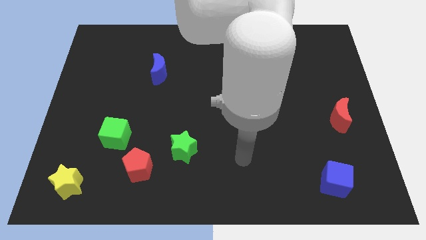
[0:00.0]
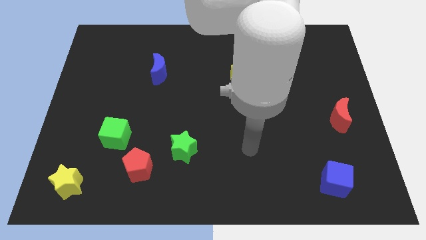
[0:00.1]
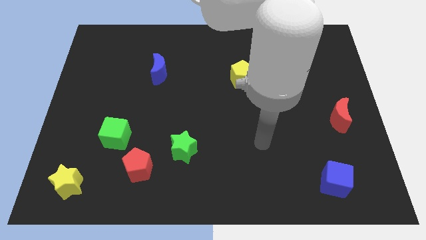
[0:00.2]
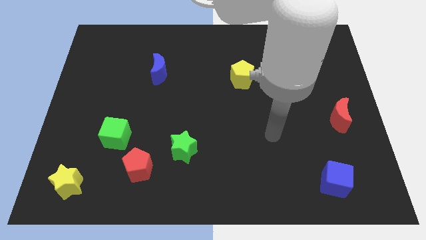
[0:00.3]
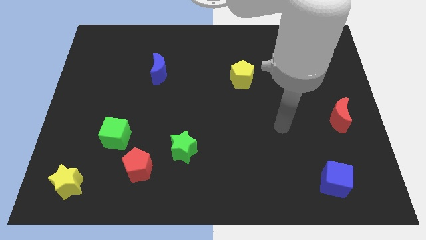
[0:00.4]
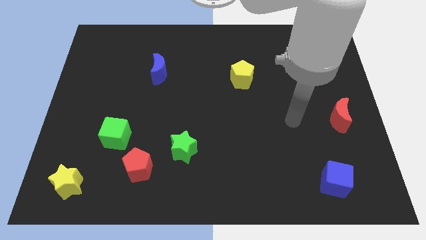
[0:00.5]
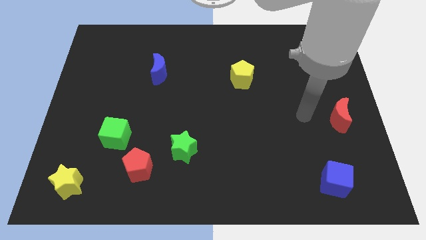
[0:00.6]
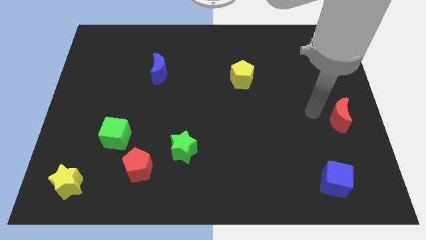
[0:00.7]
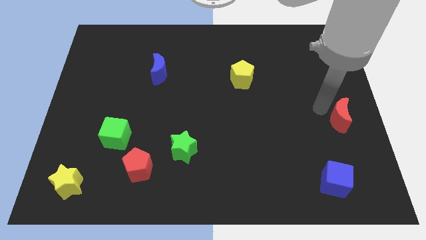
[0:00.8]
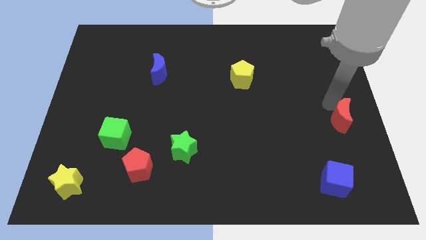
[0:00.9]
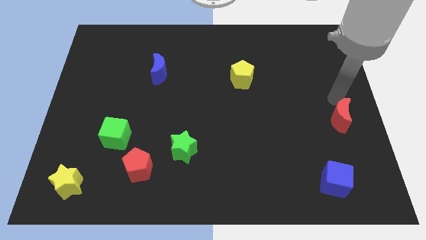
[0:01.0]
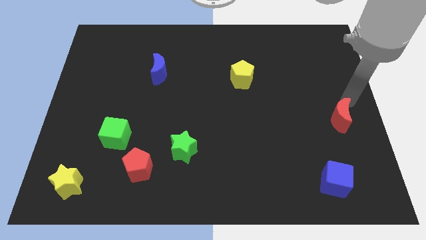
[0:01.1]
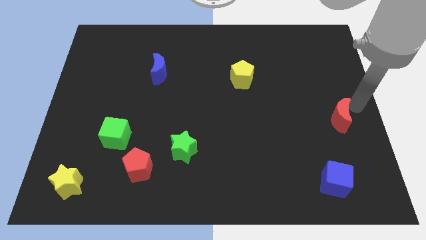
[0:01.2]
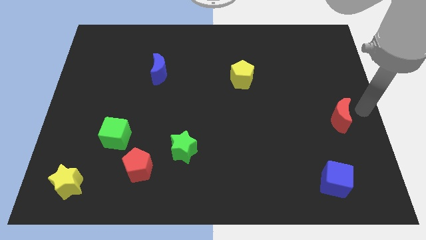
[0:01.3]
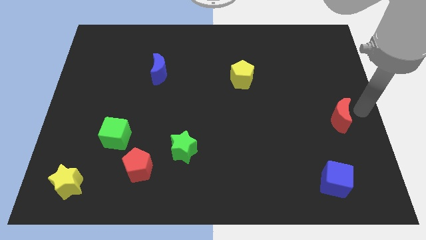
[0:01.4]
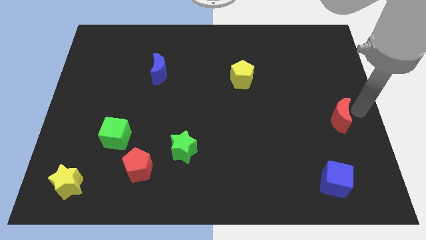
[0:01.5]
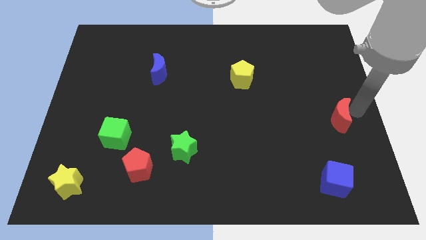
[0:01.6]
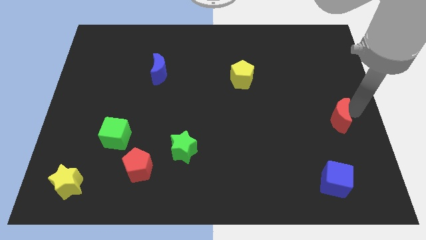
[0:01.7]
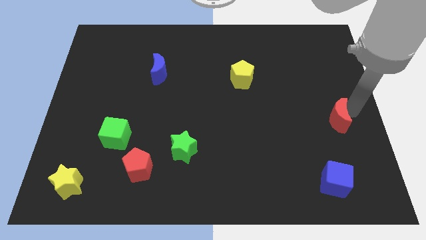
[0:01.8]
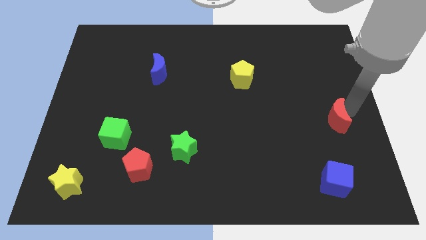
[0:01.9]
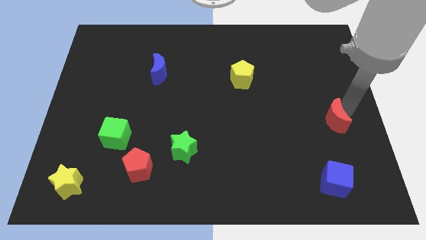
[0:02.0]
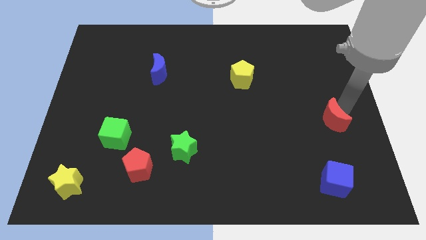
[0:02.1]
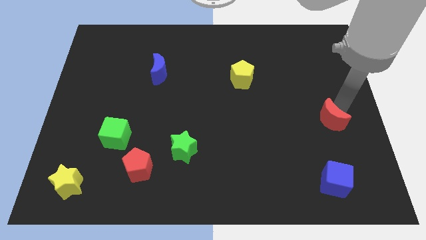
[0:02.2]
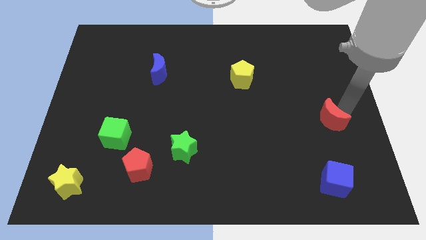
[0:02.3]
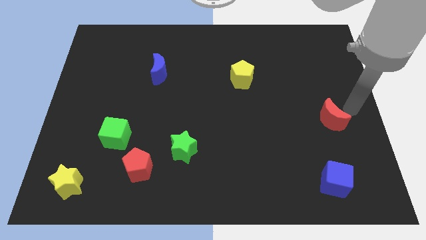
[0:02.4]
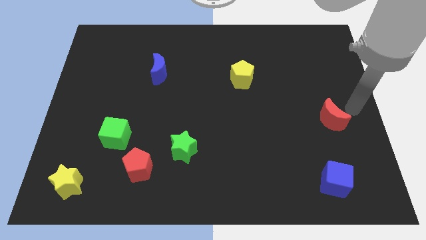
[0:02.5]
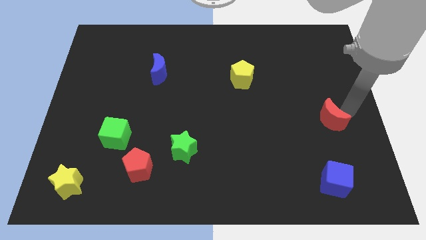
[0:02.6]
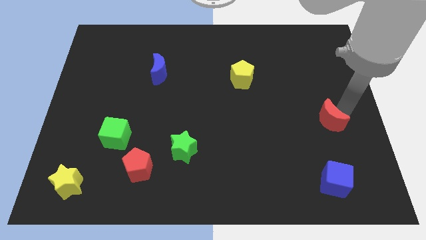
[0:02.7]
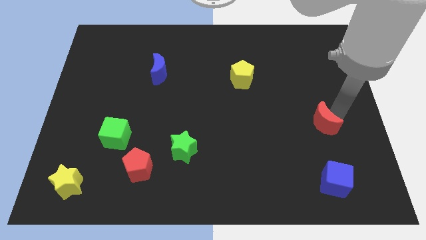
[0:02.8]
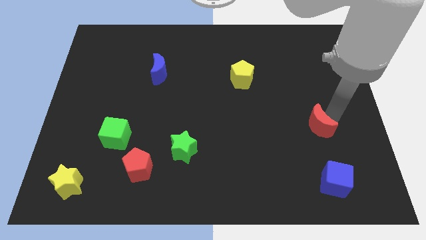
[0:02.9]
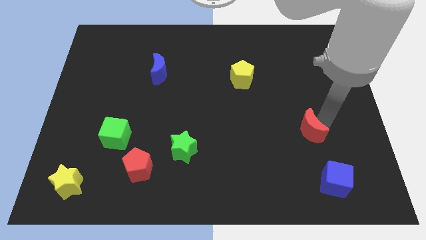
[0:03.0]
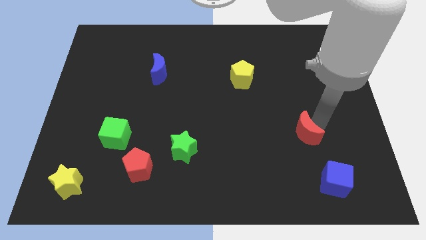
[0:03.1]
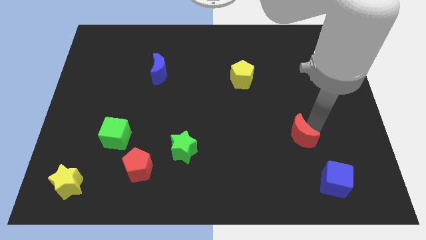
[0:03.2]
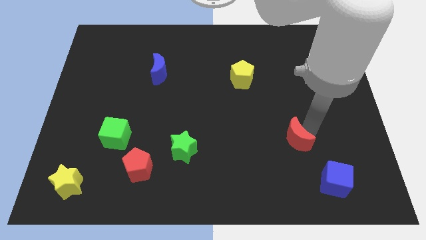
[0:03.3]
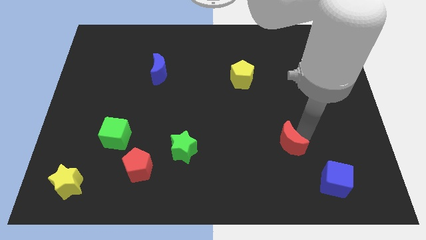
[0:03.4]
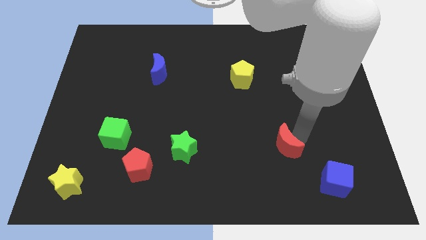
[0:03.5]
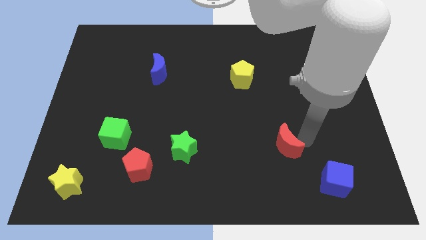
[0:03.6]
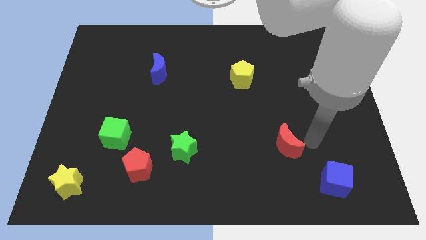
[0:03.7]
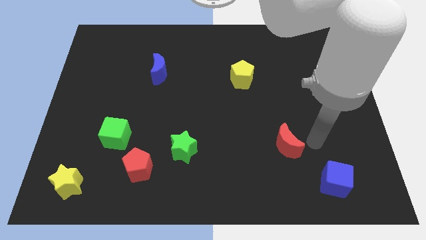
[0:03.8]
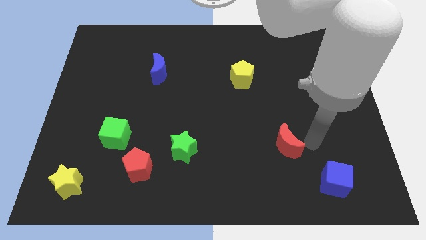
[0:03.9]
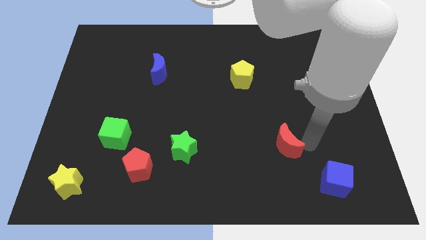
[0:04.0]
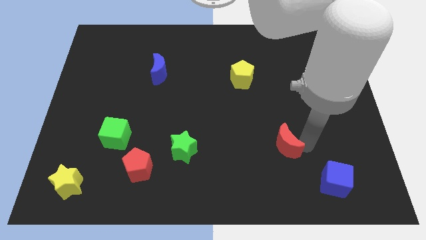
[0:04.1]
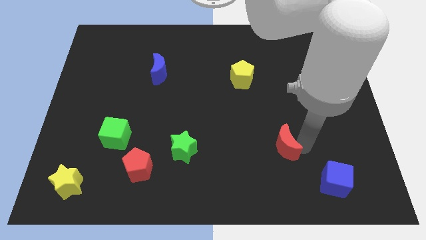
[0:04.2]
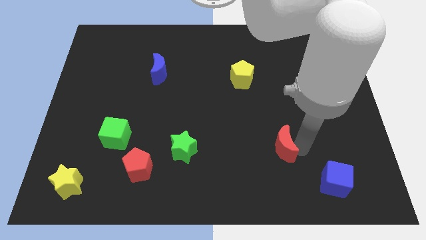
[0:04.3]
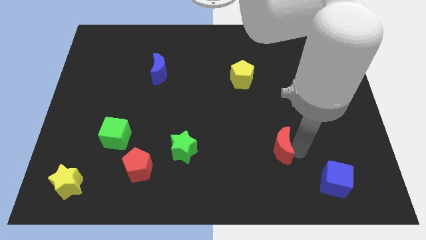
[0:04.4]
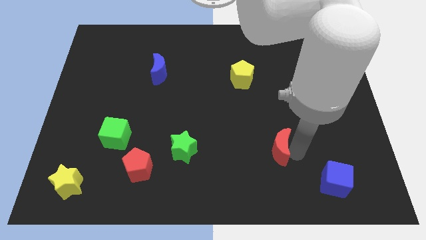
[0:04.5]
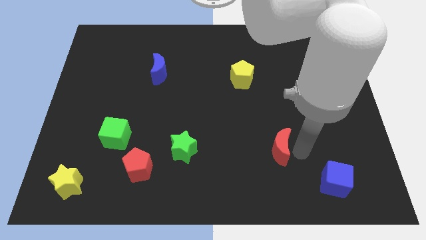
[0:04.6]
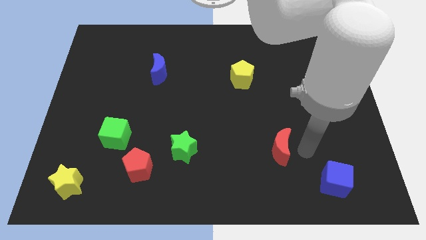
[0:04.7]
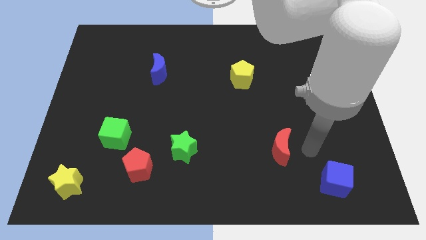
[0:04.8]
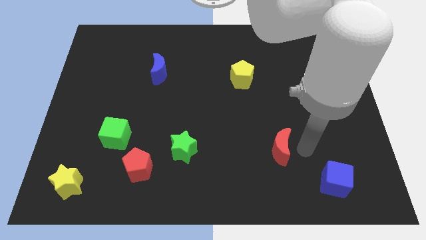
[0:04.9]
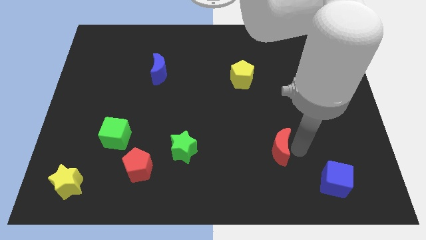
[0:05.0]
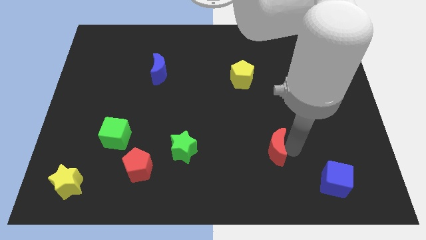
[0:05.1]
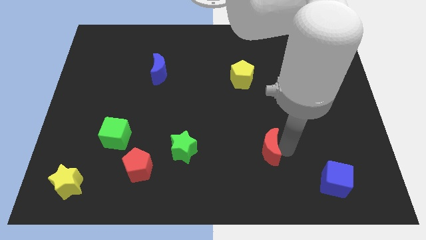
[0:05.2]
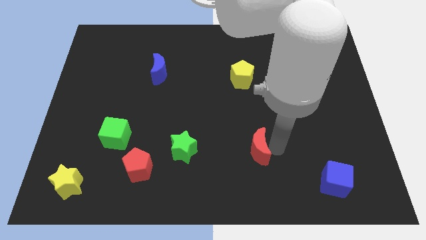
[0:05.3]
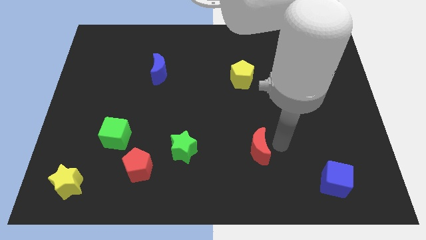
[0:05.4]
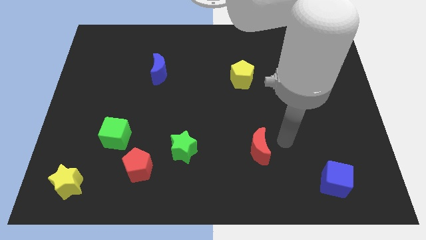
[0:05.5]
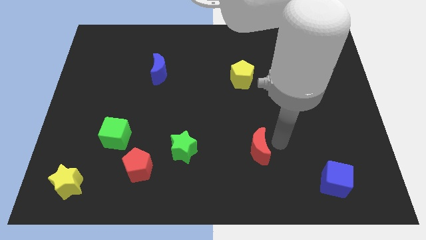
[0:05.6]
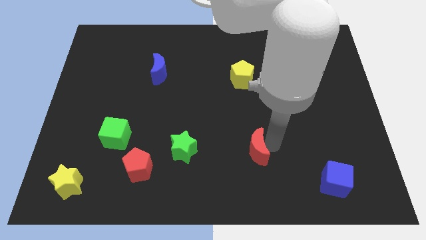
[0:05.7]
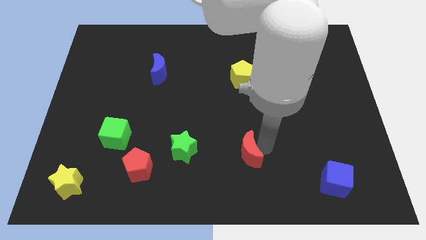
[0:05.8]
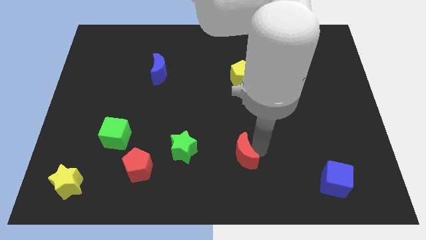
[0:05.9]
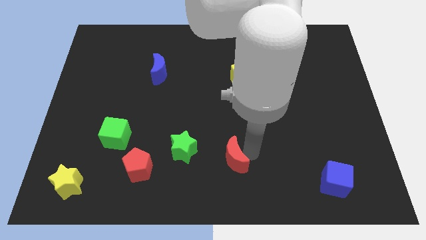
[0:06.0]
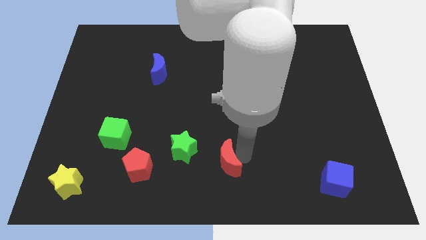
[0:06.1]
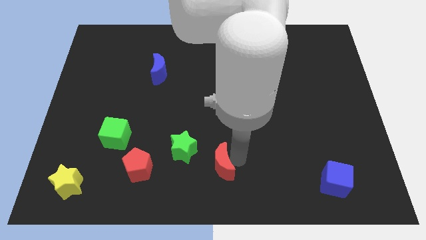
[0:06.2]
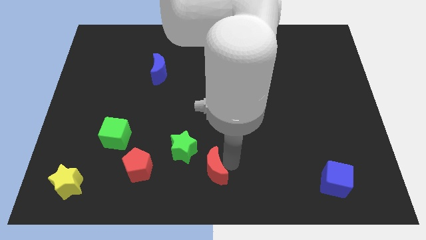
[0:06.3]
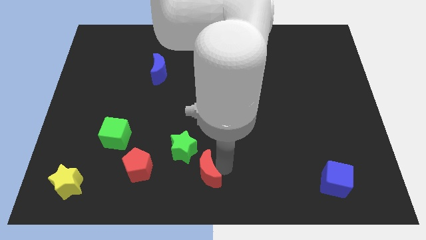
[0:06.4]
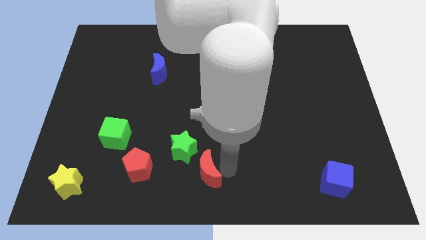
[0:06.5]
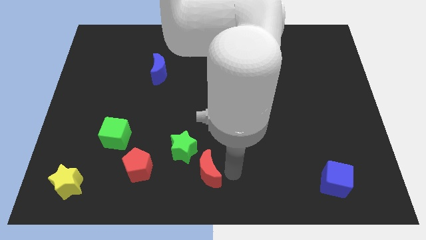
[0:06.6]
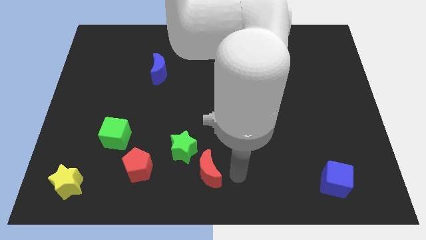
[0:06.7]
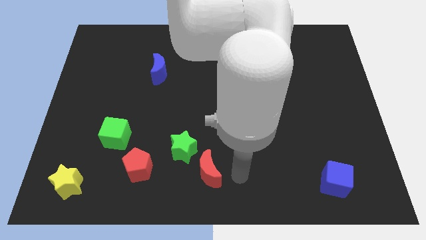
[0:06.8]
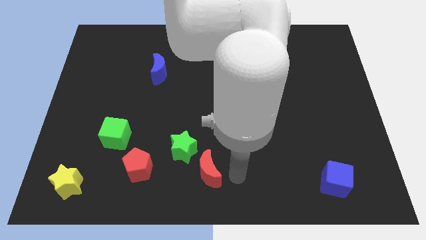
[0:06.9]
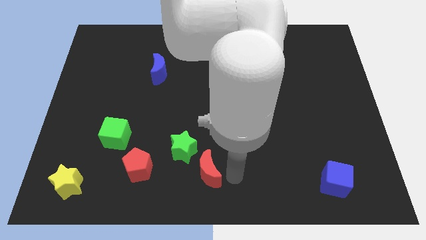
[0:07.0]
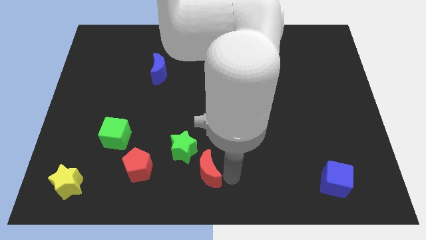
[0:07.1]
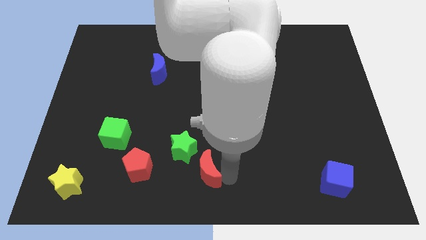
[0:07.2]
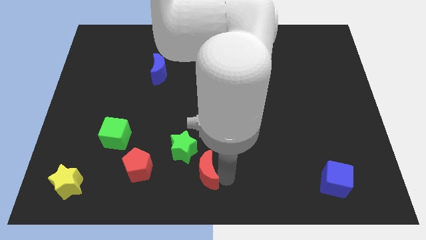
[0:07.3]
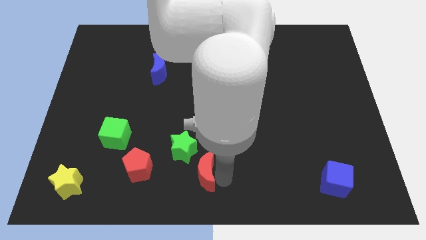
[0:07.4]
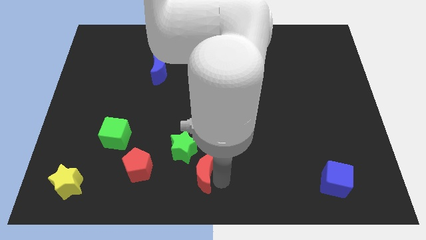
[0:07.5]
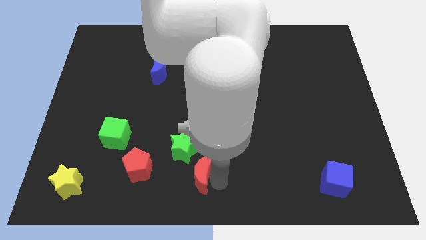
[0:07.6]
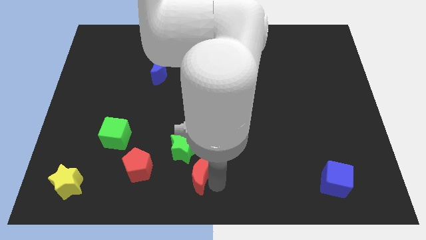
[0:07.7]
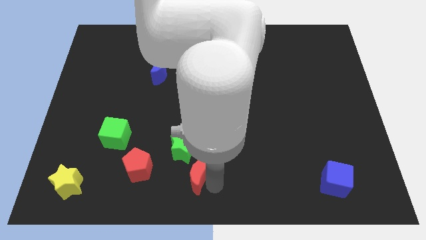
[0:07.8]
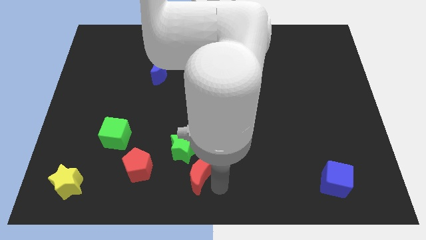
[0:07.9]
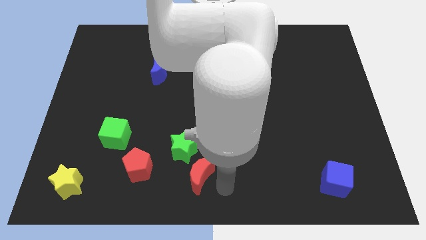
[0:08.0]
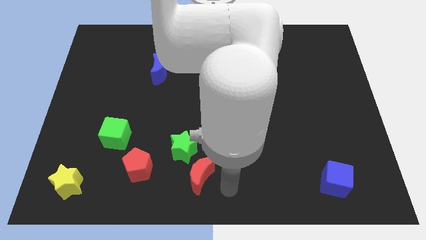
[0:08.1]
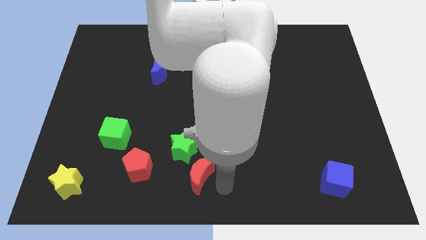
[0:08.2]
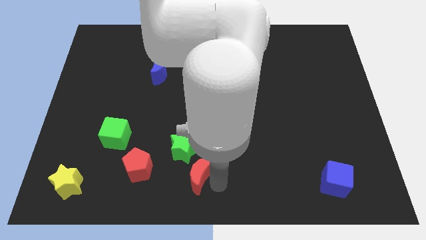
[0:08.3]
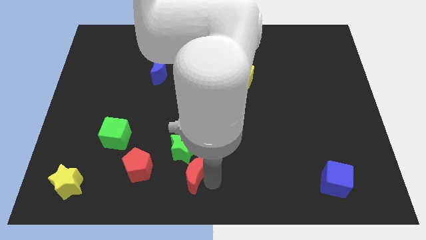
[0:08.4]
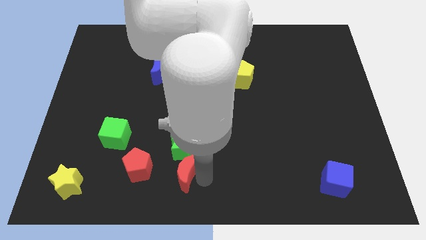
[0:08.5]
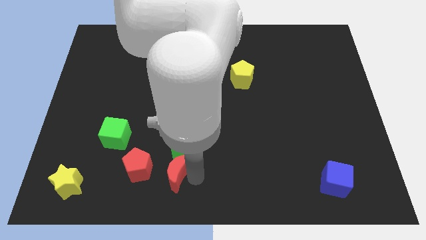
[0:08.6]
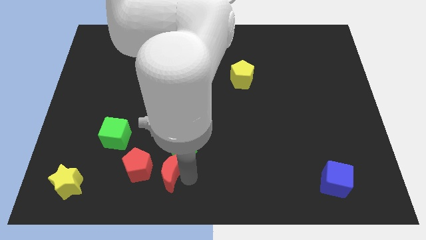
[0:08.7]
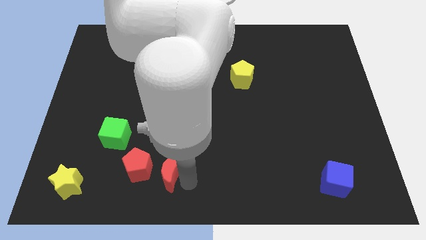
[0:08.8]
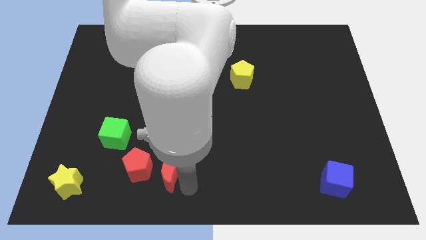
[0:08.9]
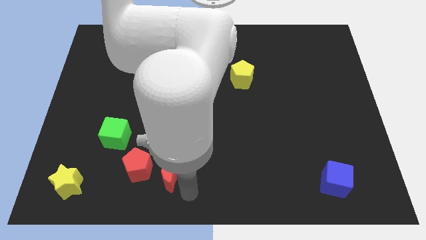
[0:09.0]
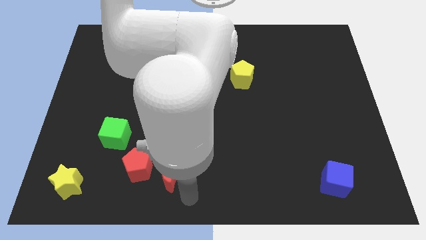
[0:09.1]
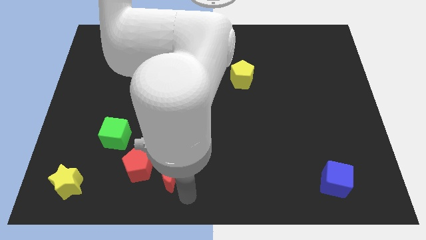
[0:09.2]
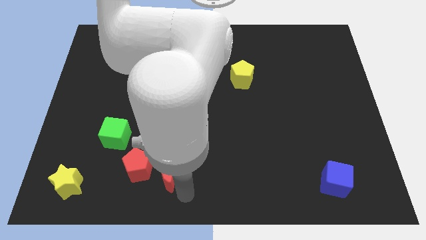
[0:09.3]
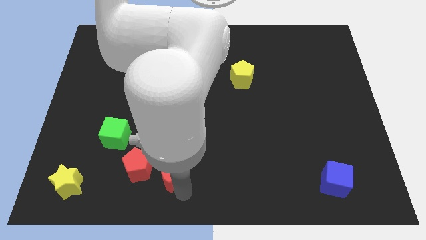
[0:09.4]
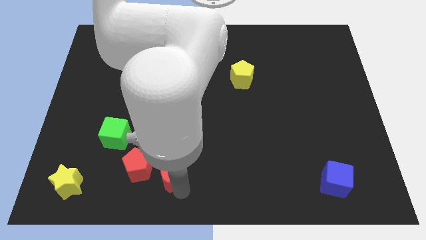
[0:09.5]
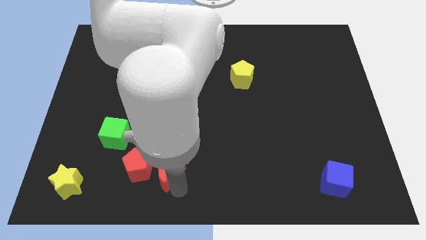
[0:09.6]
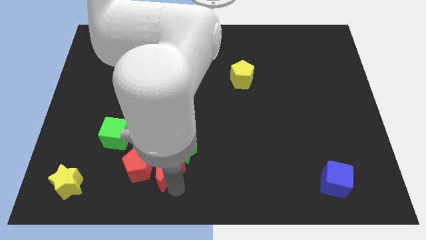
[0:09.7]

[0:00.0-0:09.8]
push the red moon to the red pentagon
